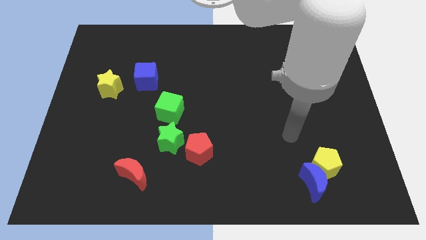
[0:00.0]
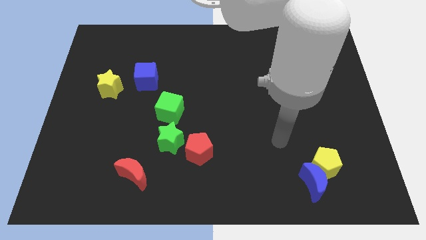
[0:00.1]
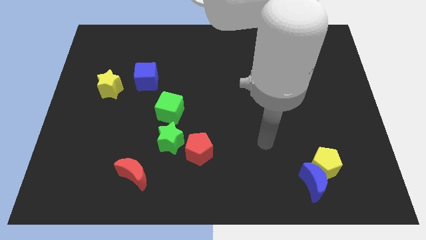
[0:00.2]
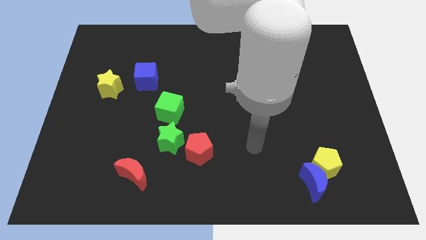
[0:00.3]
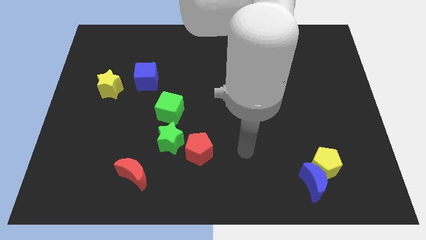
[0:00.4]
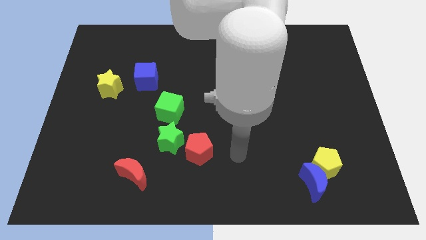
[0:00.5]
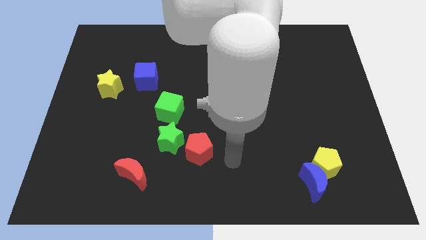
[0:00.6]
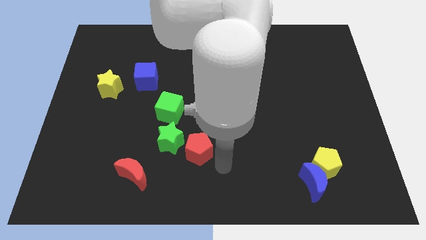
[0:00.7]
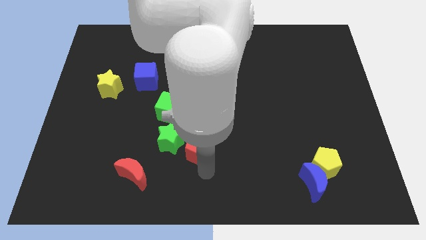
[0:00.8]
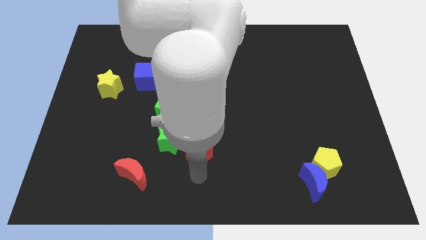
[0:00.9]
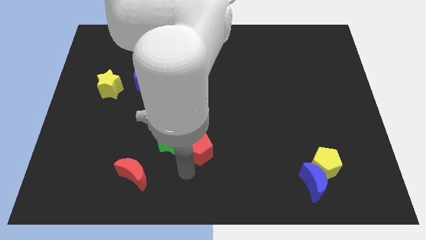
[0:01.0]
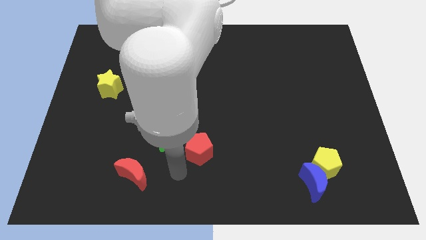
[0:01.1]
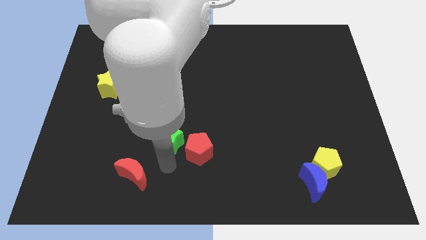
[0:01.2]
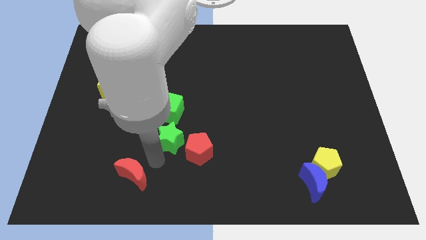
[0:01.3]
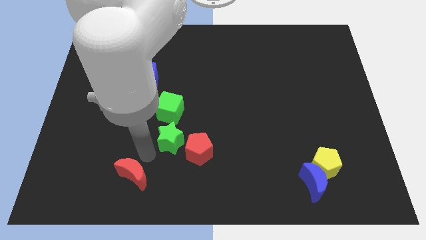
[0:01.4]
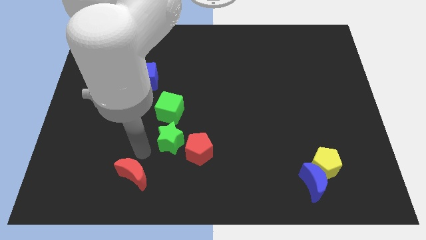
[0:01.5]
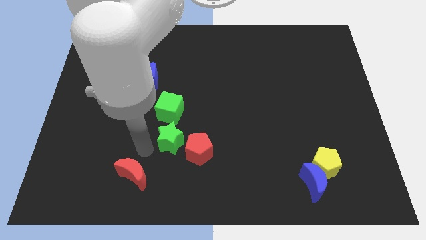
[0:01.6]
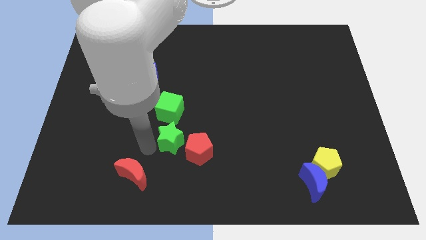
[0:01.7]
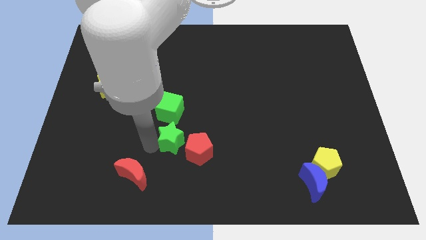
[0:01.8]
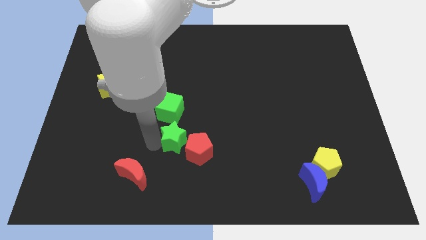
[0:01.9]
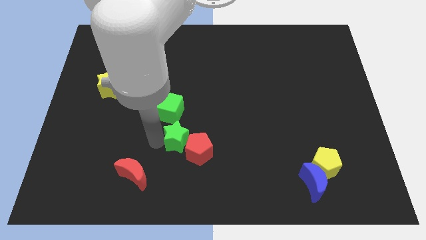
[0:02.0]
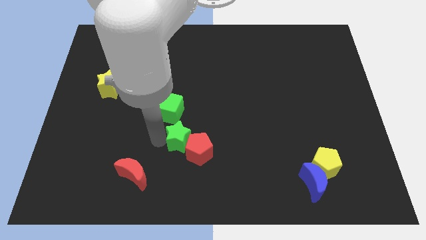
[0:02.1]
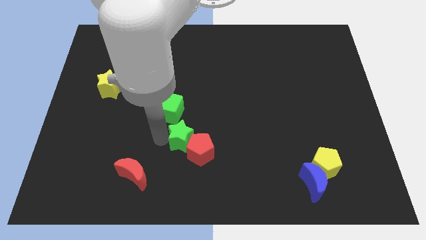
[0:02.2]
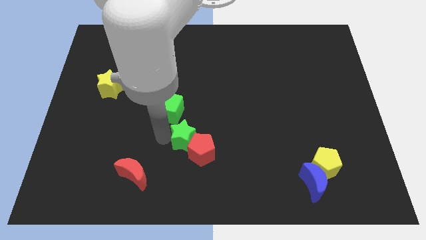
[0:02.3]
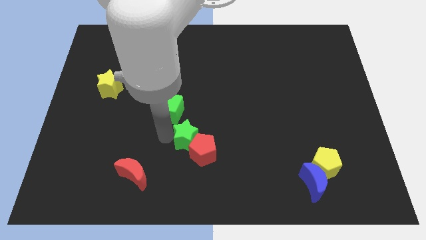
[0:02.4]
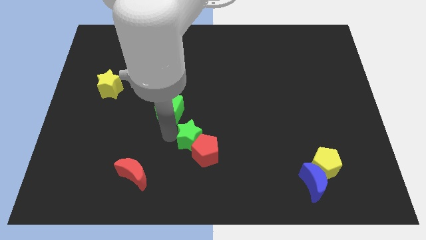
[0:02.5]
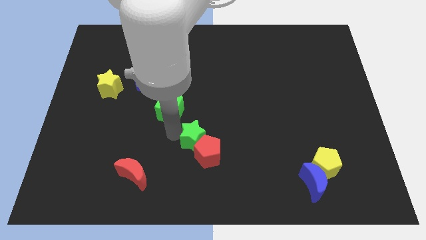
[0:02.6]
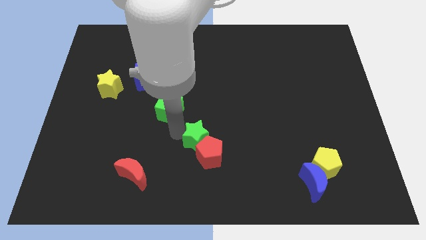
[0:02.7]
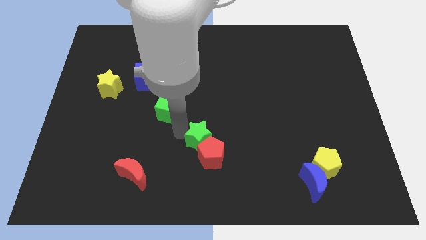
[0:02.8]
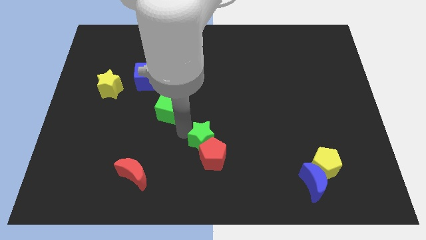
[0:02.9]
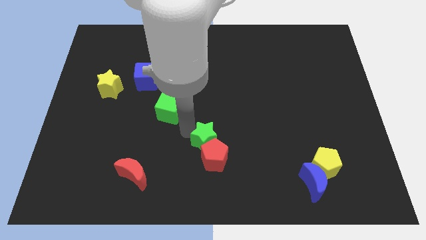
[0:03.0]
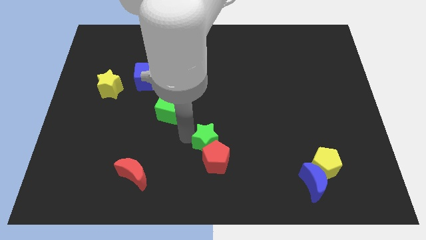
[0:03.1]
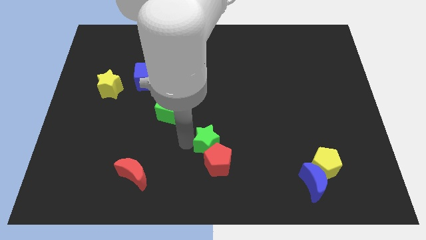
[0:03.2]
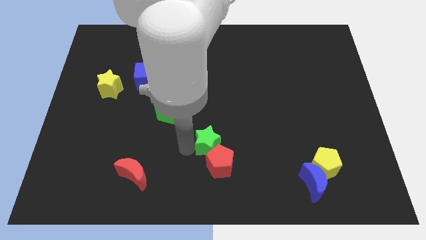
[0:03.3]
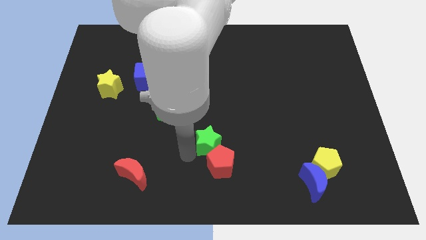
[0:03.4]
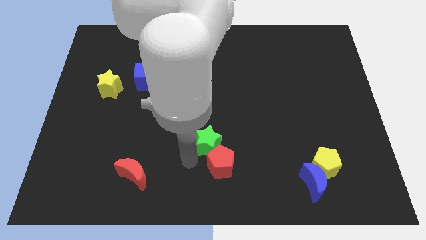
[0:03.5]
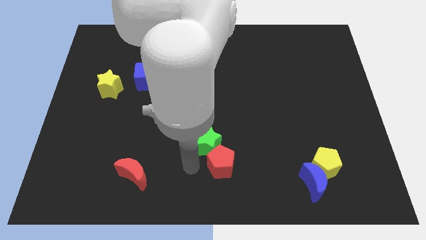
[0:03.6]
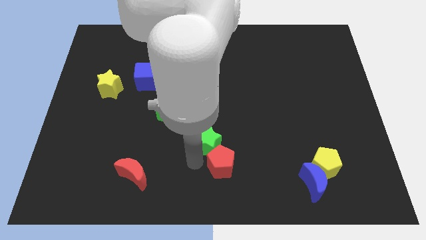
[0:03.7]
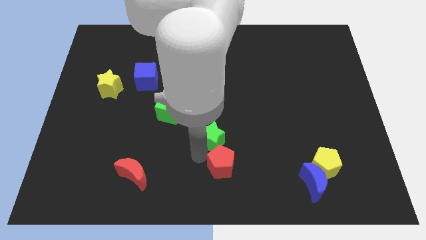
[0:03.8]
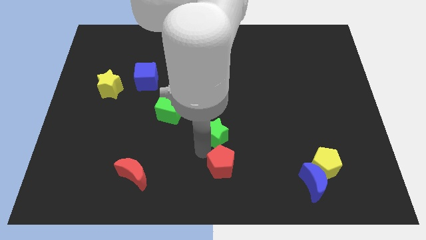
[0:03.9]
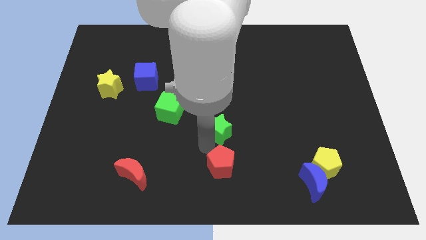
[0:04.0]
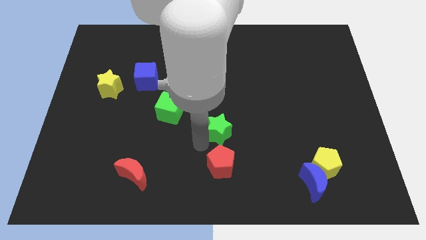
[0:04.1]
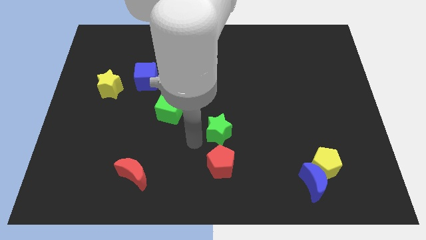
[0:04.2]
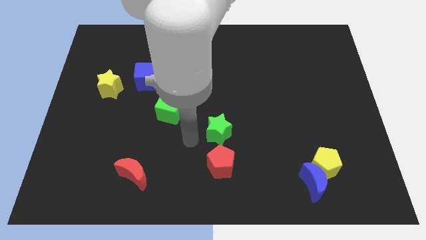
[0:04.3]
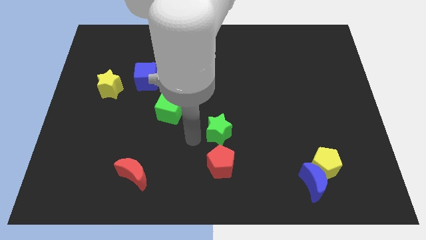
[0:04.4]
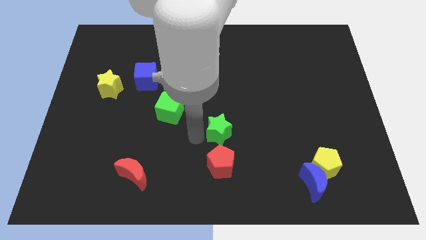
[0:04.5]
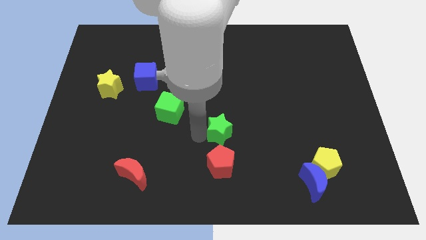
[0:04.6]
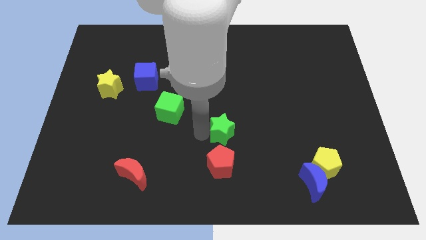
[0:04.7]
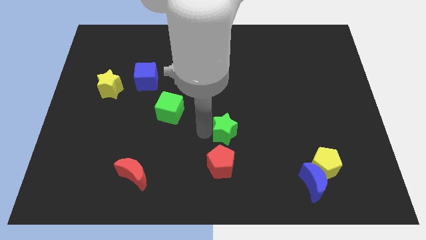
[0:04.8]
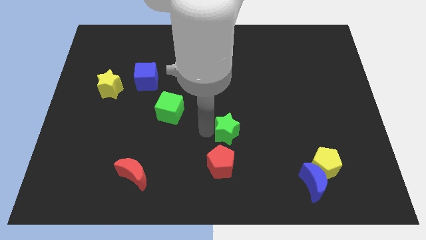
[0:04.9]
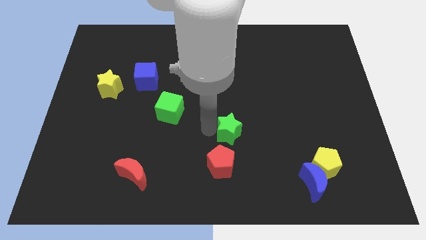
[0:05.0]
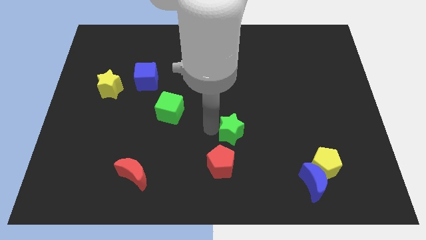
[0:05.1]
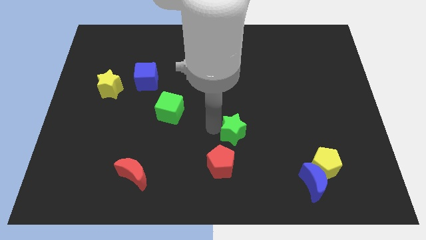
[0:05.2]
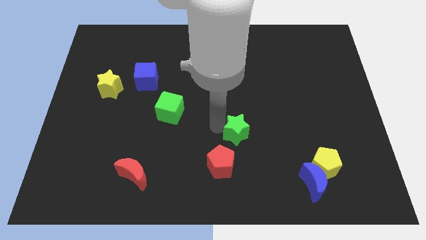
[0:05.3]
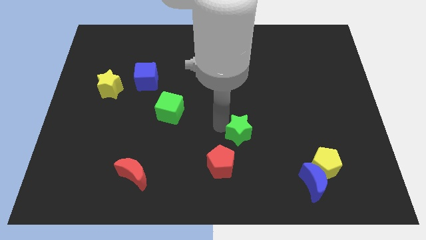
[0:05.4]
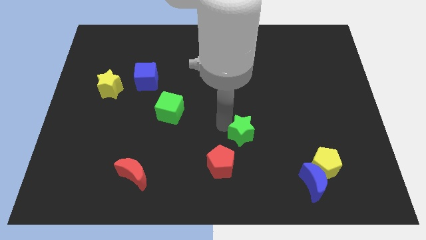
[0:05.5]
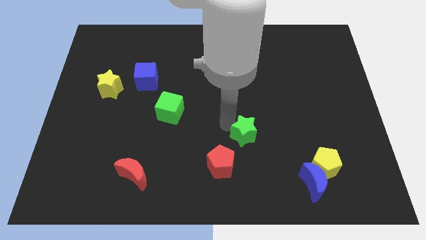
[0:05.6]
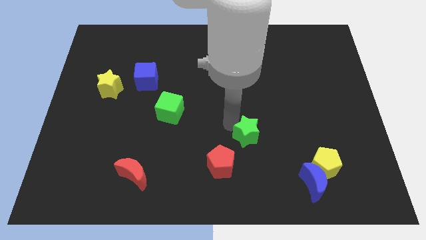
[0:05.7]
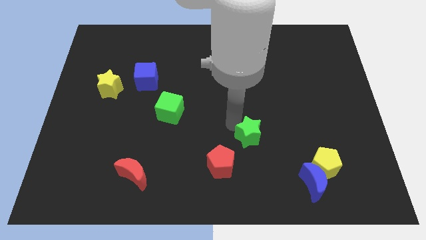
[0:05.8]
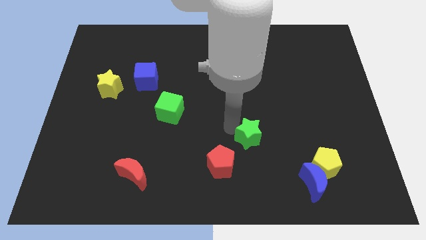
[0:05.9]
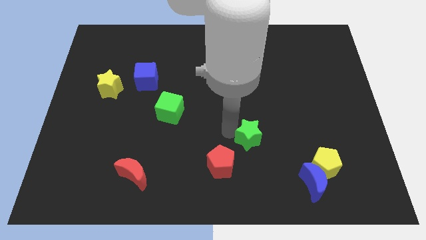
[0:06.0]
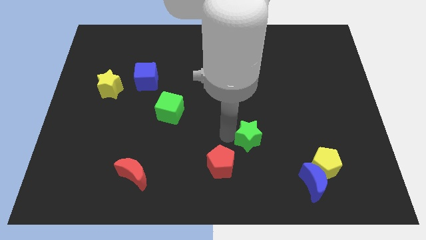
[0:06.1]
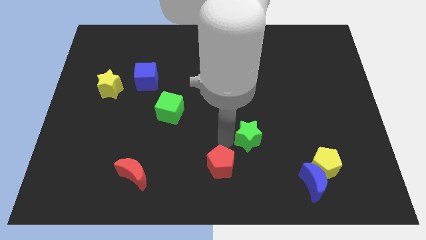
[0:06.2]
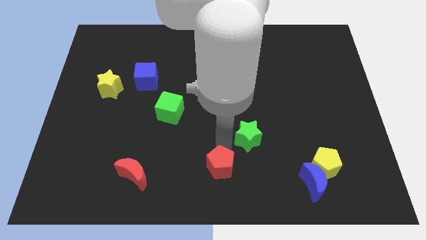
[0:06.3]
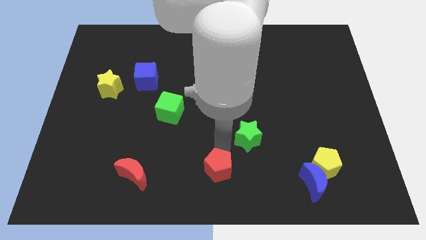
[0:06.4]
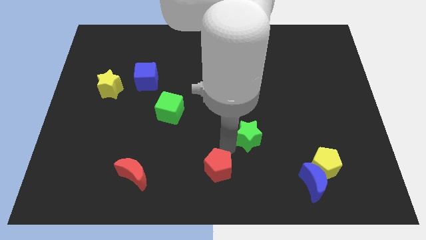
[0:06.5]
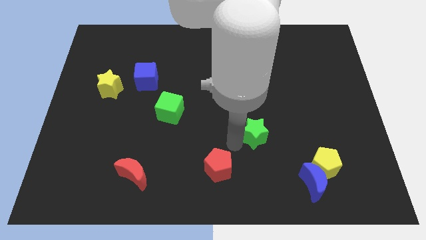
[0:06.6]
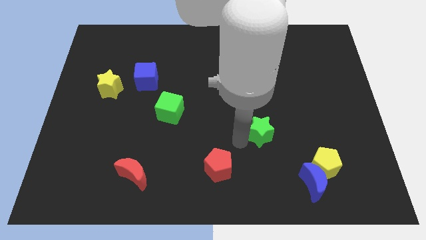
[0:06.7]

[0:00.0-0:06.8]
move the green star to the right

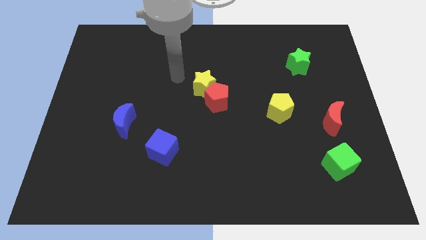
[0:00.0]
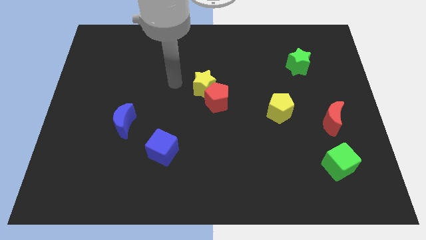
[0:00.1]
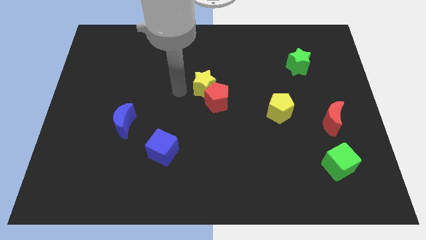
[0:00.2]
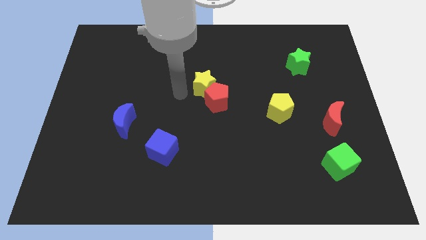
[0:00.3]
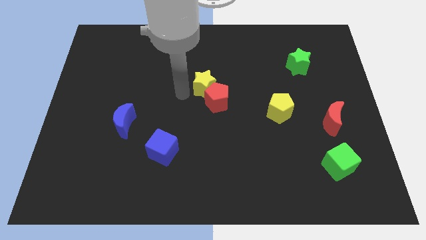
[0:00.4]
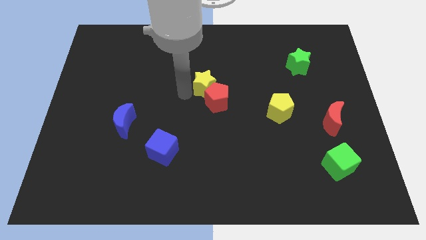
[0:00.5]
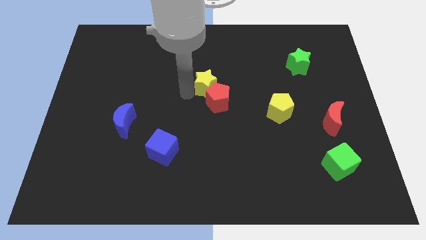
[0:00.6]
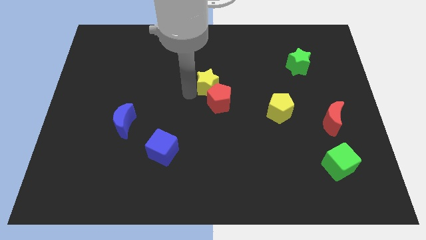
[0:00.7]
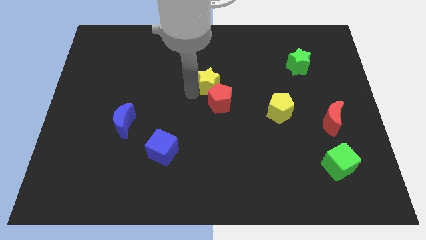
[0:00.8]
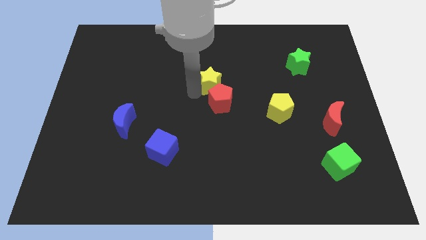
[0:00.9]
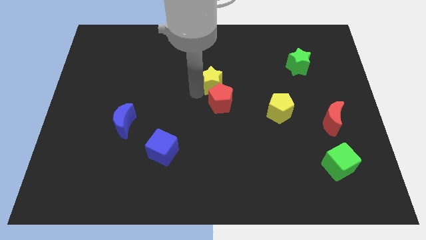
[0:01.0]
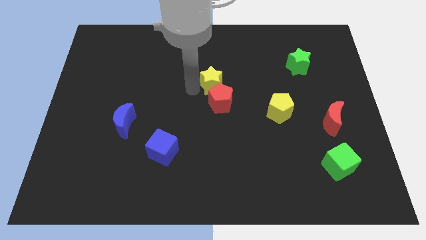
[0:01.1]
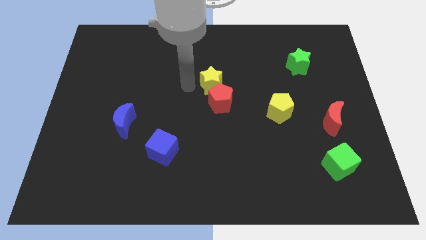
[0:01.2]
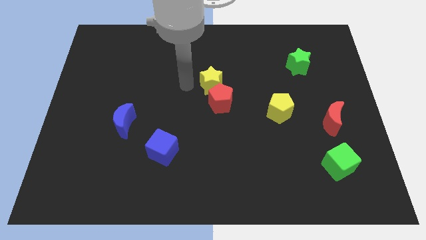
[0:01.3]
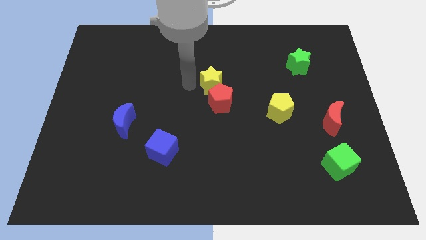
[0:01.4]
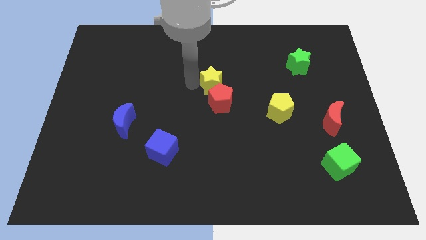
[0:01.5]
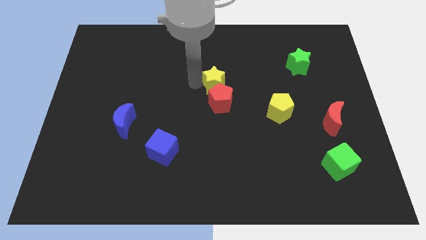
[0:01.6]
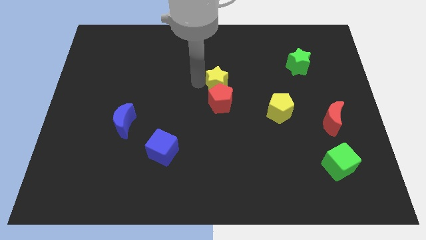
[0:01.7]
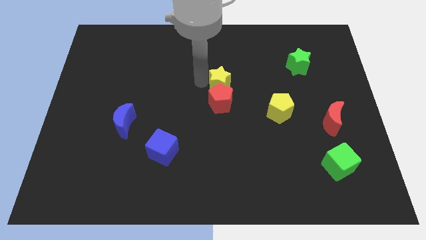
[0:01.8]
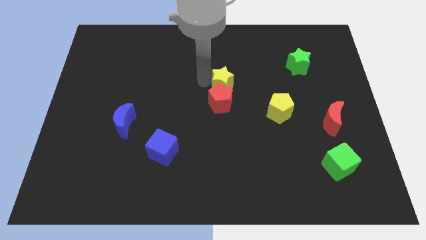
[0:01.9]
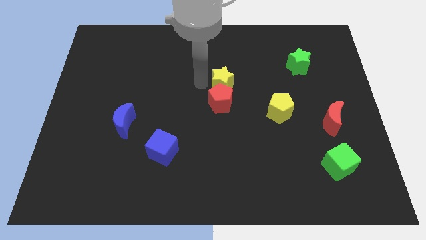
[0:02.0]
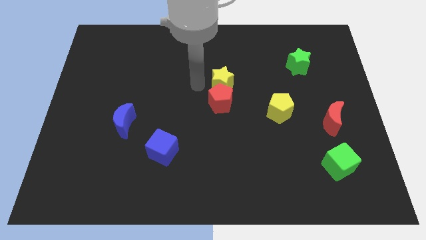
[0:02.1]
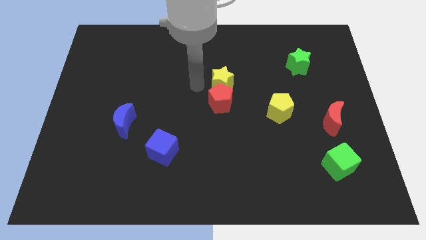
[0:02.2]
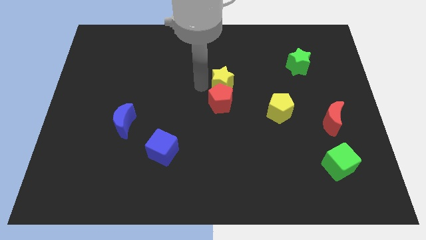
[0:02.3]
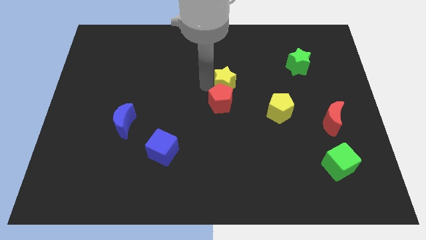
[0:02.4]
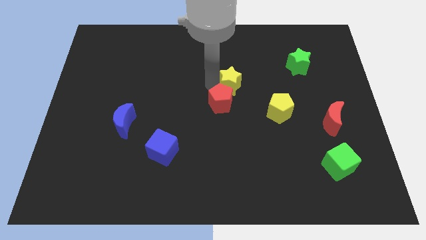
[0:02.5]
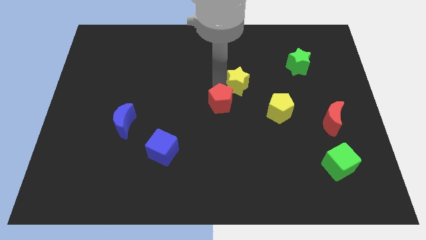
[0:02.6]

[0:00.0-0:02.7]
slide the yellow star to the right slightly
